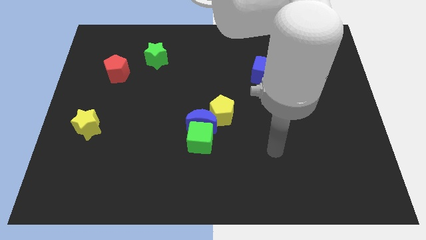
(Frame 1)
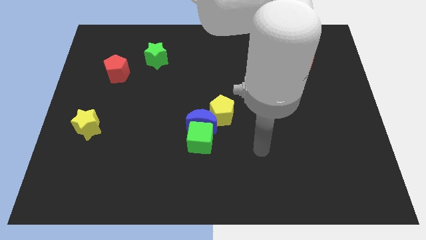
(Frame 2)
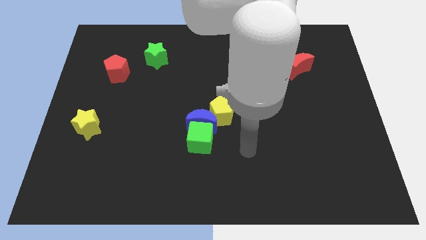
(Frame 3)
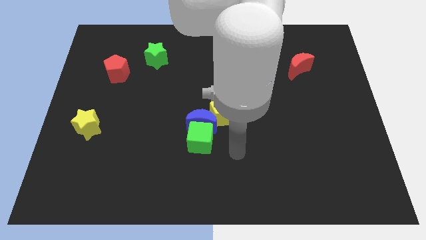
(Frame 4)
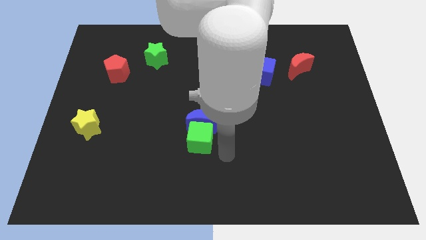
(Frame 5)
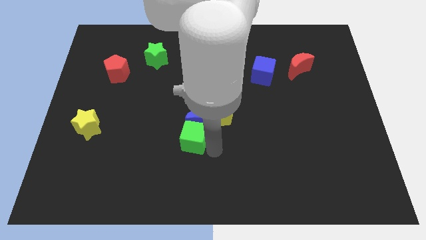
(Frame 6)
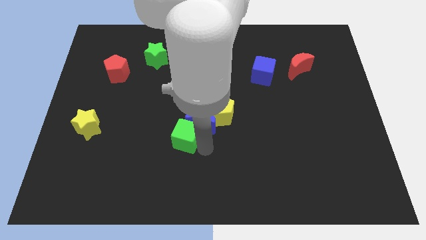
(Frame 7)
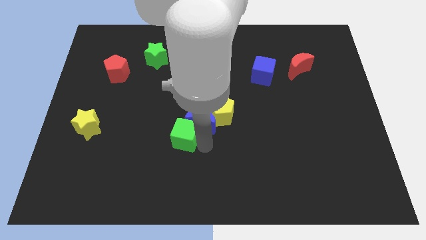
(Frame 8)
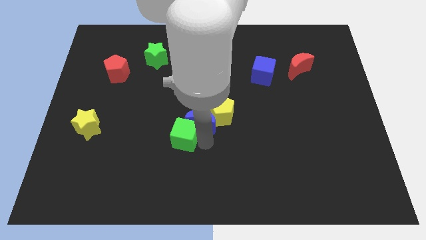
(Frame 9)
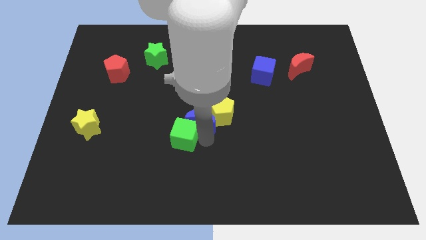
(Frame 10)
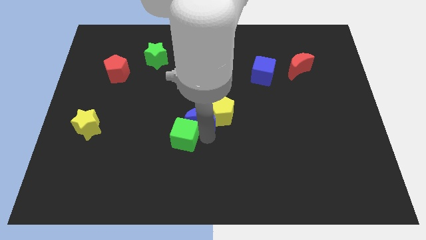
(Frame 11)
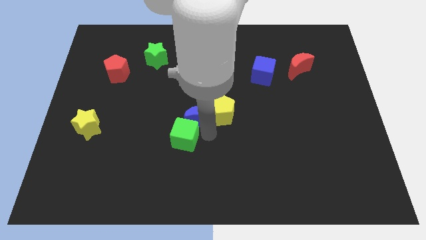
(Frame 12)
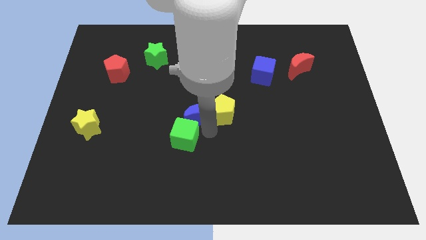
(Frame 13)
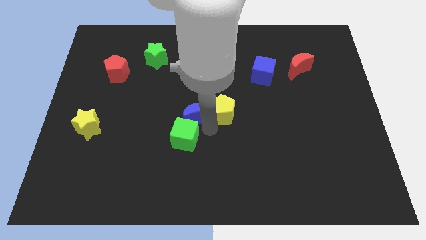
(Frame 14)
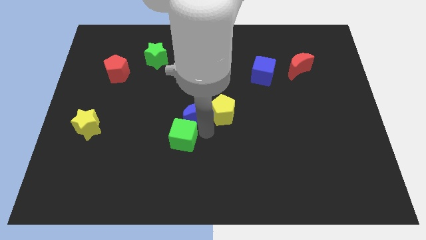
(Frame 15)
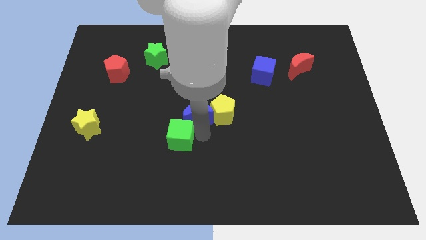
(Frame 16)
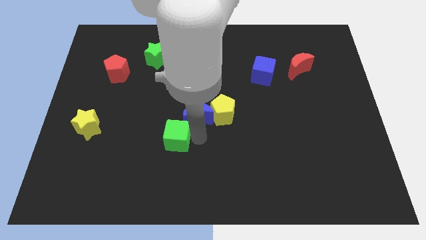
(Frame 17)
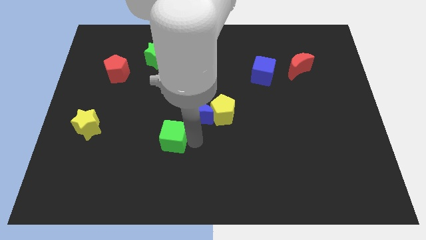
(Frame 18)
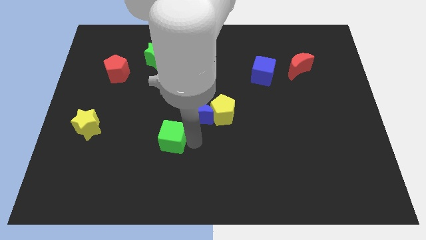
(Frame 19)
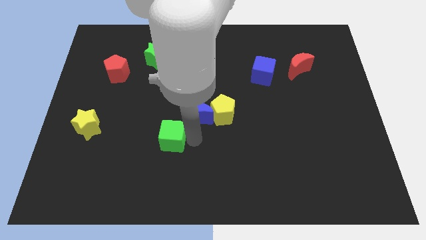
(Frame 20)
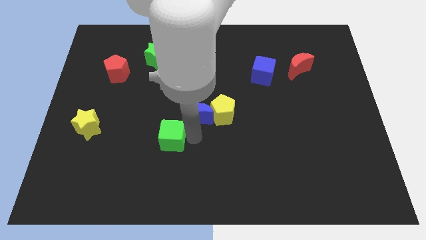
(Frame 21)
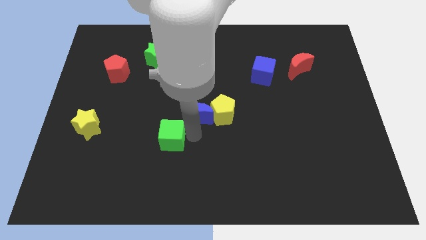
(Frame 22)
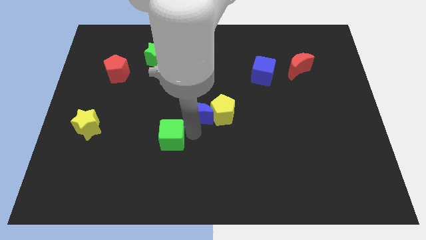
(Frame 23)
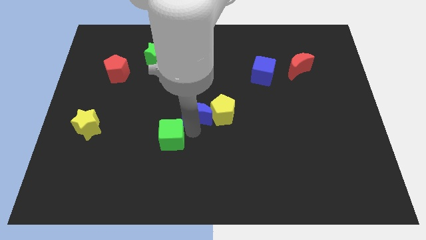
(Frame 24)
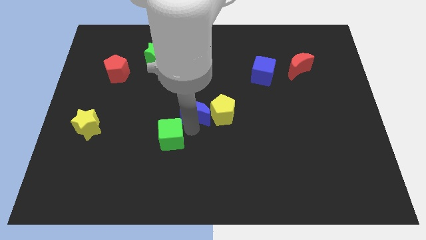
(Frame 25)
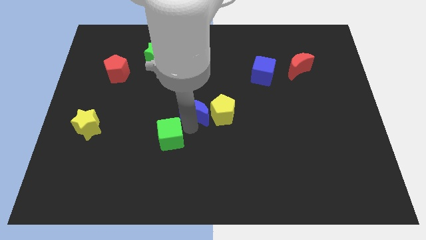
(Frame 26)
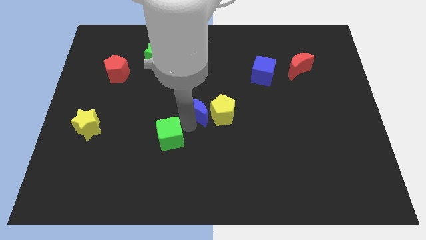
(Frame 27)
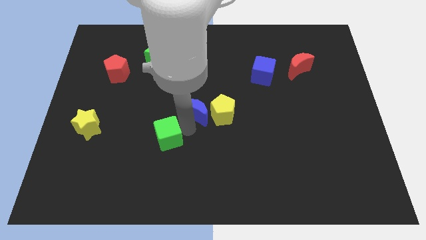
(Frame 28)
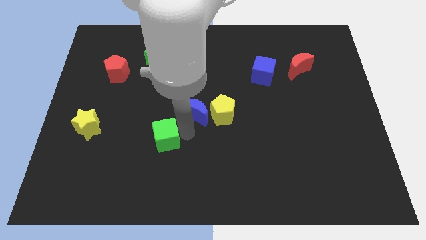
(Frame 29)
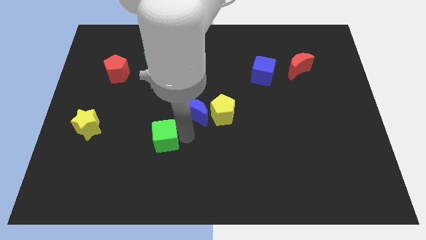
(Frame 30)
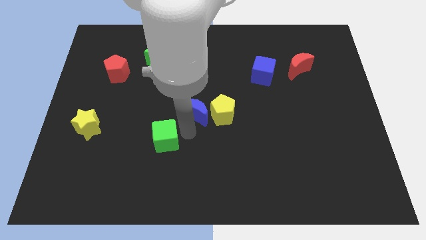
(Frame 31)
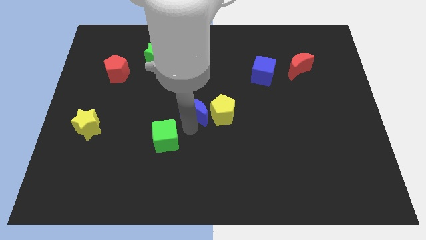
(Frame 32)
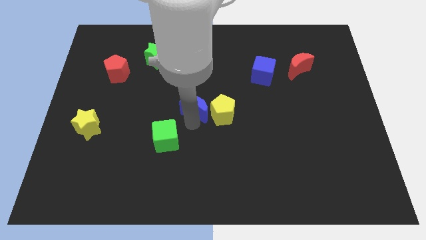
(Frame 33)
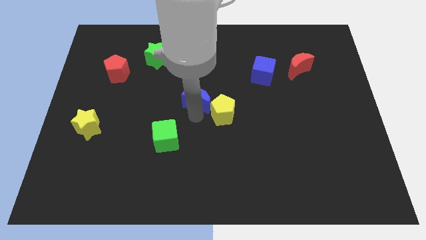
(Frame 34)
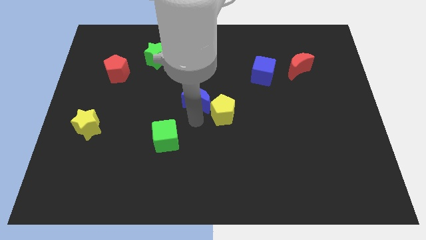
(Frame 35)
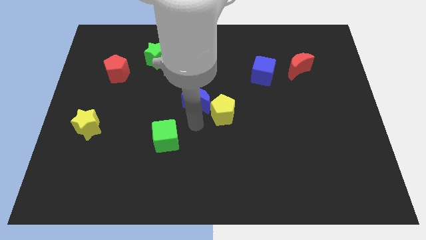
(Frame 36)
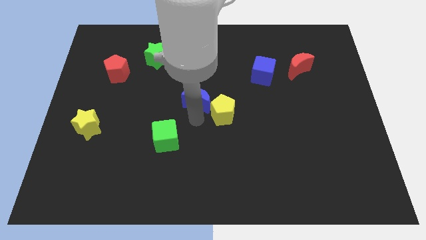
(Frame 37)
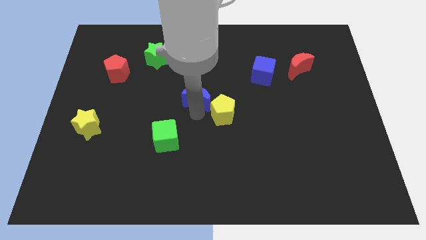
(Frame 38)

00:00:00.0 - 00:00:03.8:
move the blue moon upwards a little

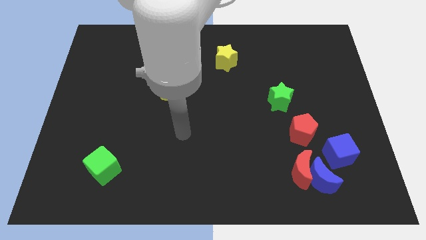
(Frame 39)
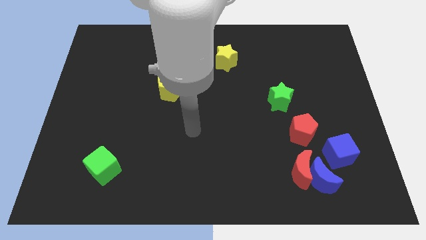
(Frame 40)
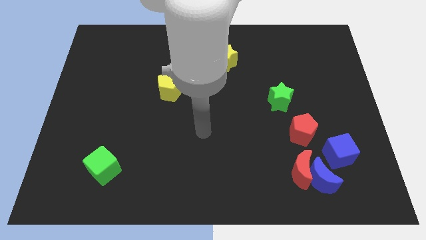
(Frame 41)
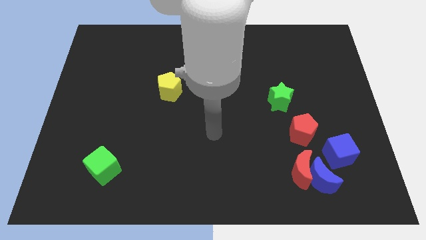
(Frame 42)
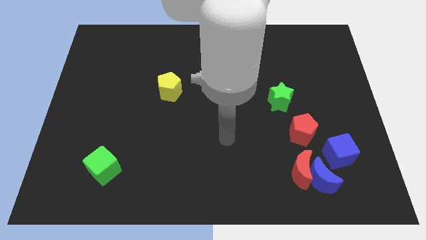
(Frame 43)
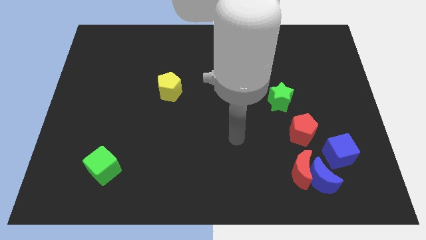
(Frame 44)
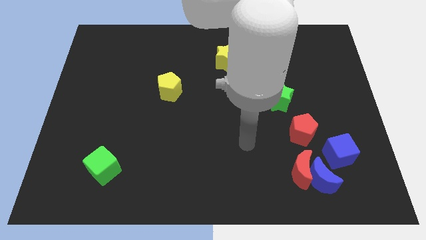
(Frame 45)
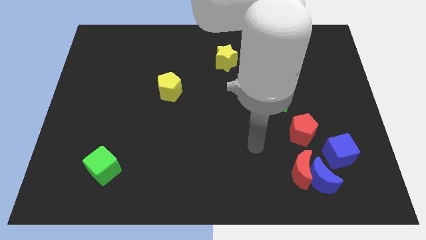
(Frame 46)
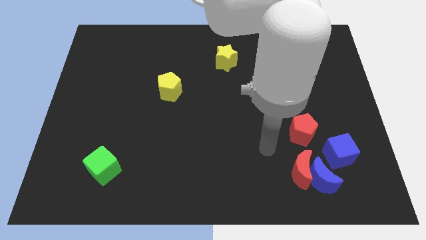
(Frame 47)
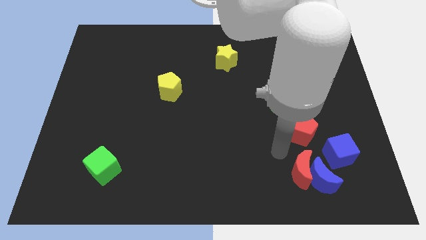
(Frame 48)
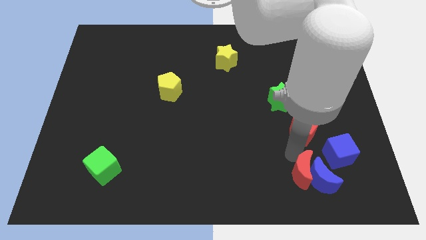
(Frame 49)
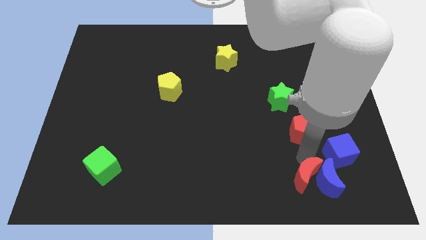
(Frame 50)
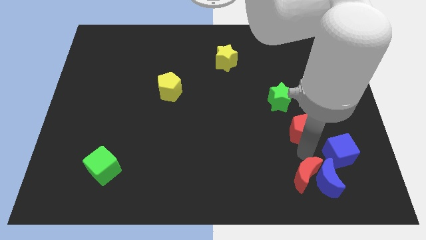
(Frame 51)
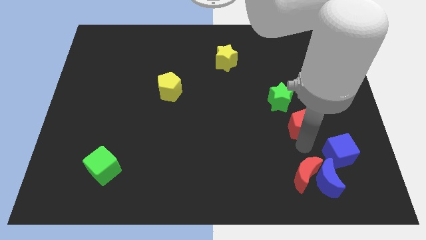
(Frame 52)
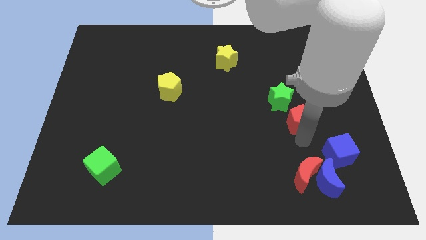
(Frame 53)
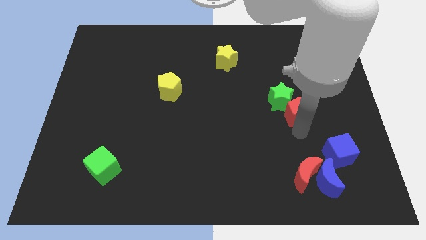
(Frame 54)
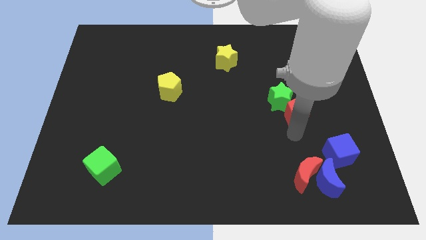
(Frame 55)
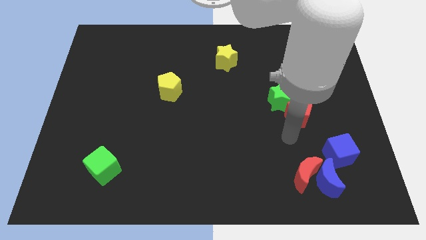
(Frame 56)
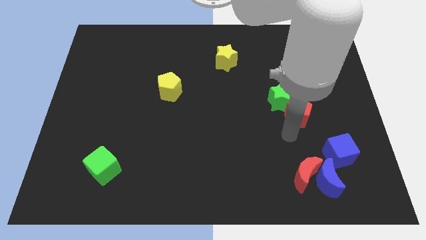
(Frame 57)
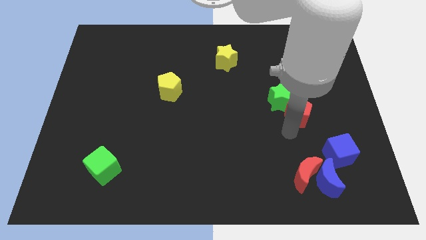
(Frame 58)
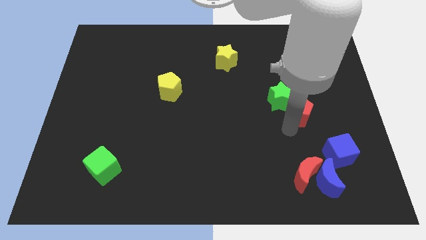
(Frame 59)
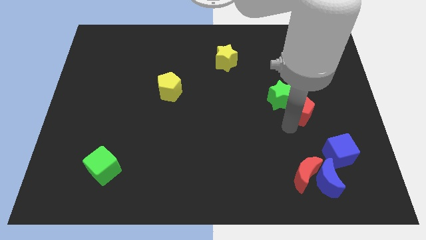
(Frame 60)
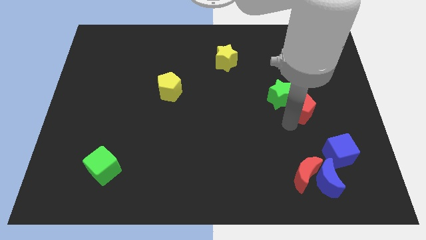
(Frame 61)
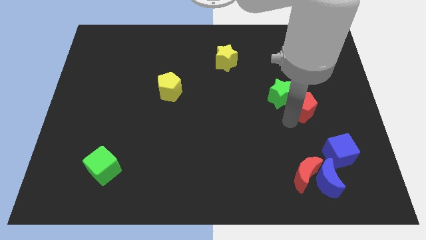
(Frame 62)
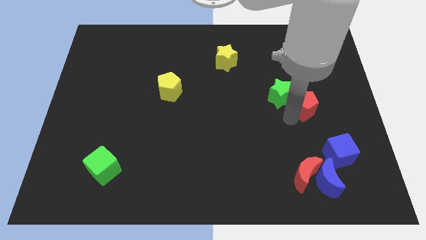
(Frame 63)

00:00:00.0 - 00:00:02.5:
move the red pentagon a bit upwards

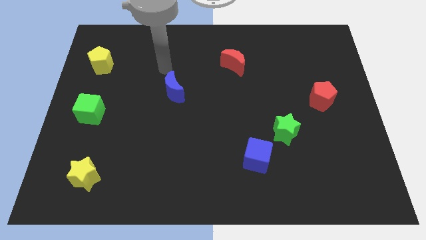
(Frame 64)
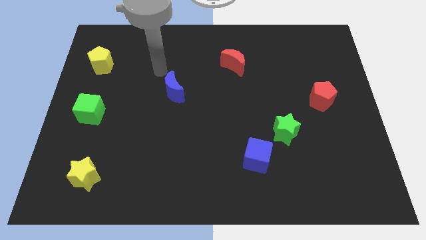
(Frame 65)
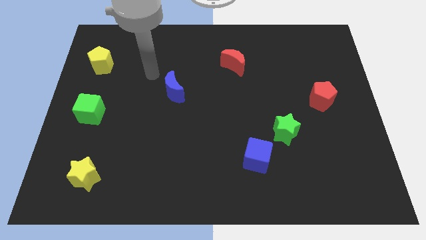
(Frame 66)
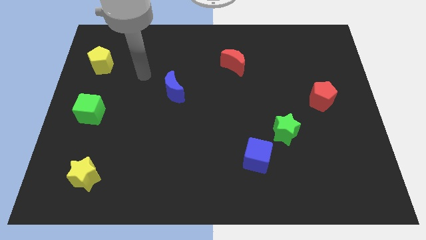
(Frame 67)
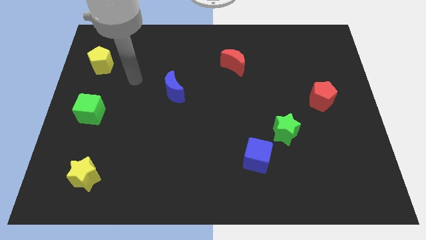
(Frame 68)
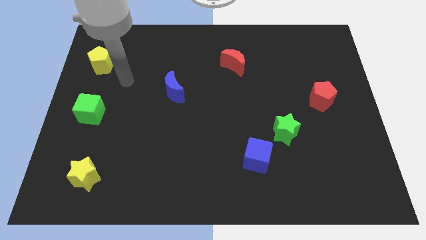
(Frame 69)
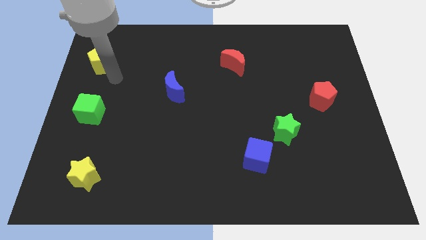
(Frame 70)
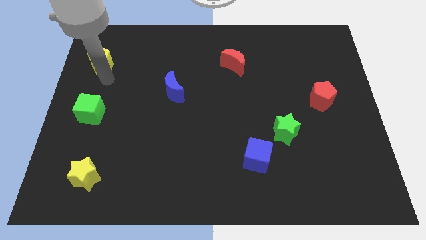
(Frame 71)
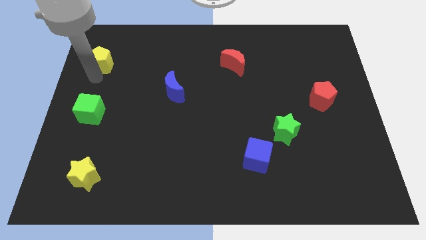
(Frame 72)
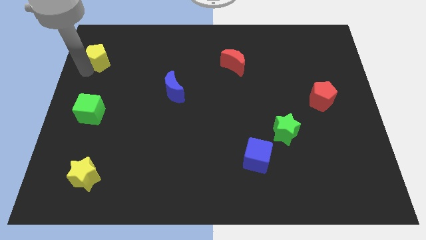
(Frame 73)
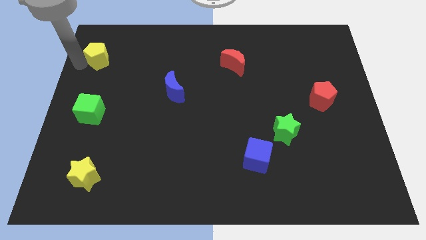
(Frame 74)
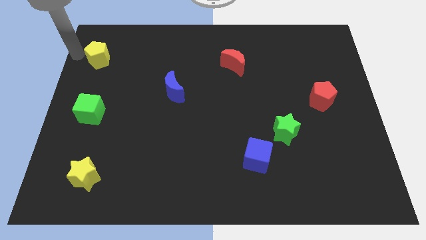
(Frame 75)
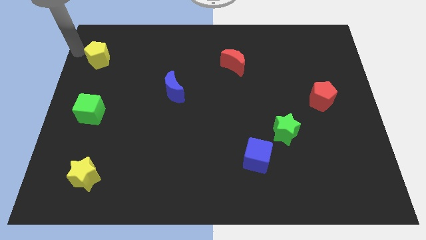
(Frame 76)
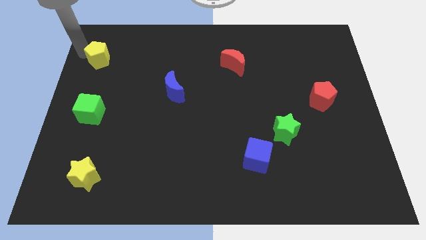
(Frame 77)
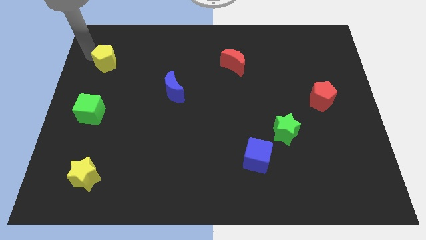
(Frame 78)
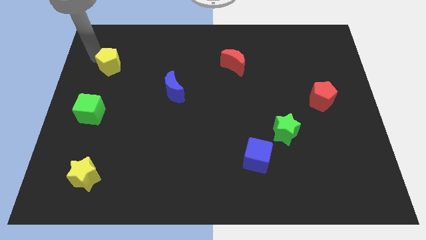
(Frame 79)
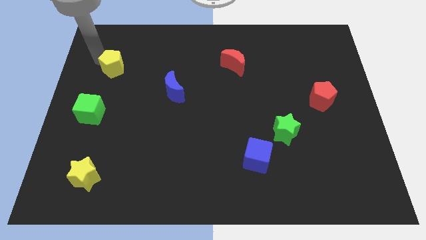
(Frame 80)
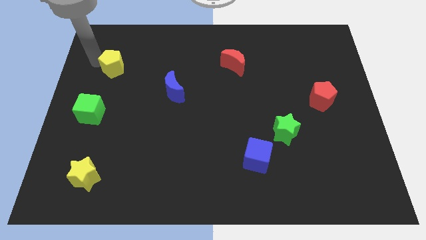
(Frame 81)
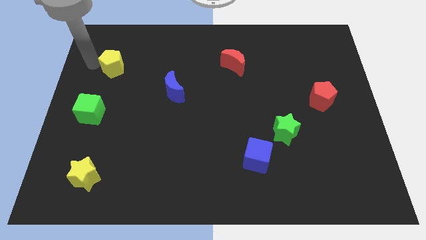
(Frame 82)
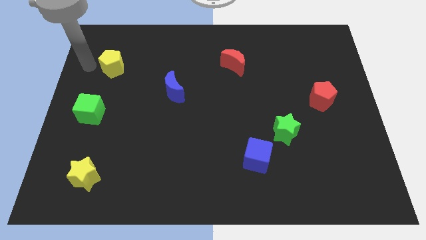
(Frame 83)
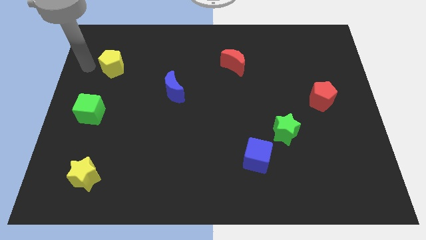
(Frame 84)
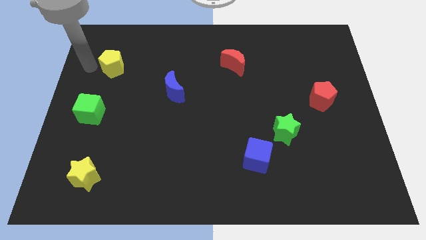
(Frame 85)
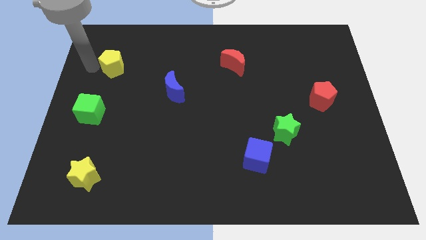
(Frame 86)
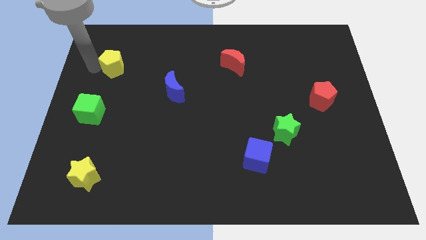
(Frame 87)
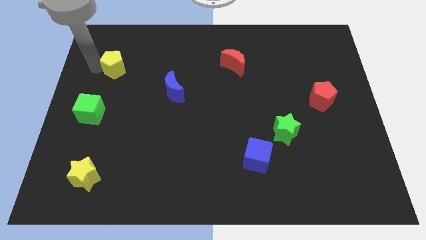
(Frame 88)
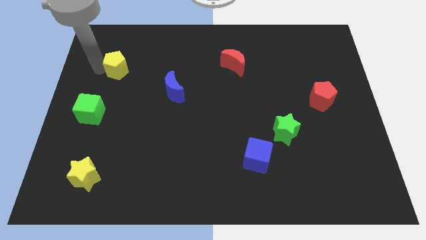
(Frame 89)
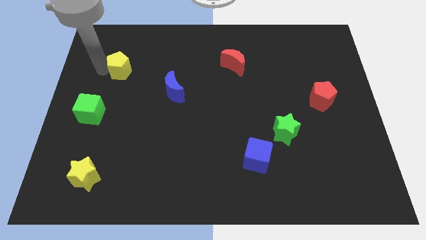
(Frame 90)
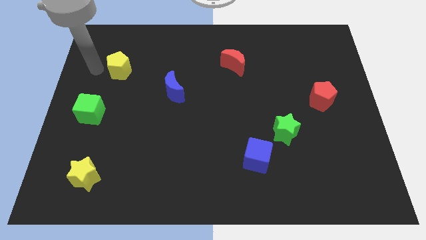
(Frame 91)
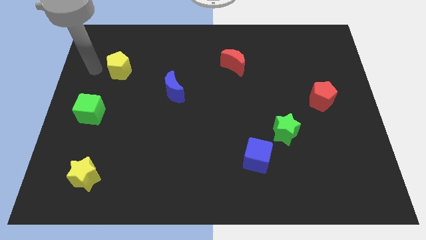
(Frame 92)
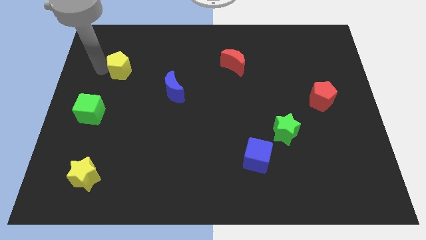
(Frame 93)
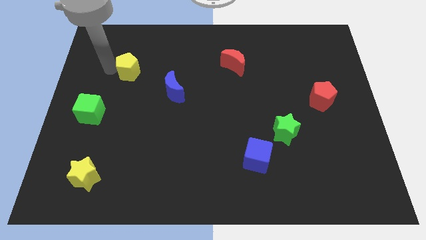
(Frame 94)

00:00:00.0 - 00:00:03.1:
slide the yellow pentagon right slightly
